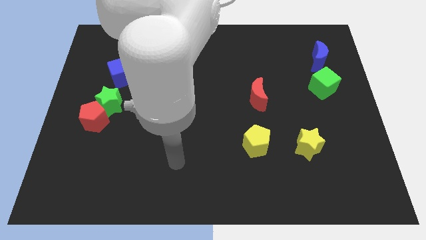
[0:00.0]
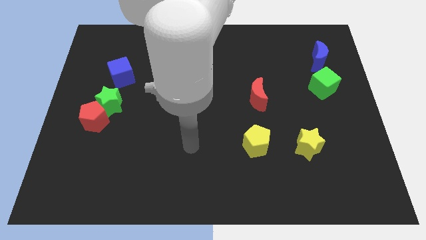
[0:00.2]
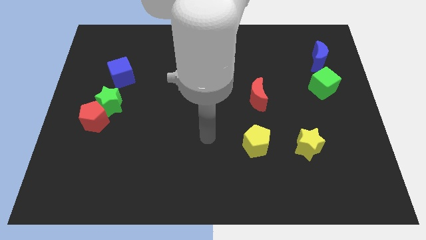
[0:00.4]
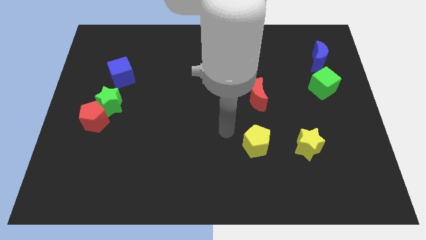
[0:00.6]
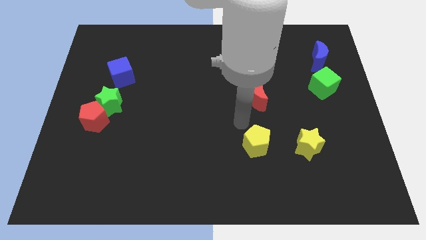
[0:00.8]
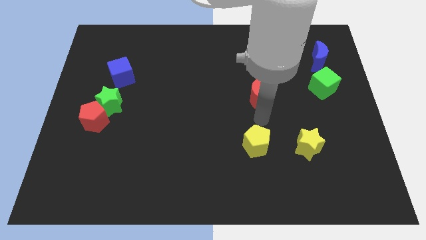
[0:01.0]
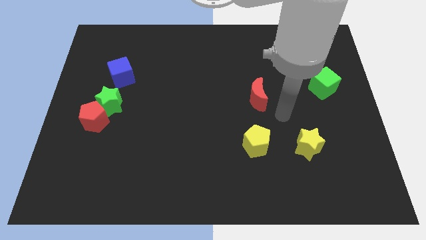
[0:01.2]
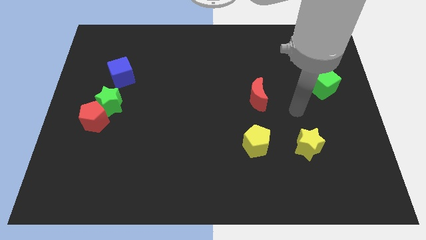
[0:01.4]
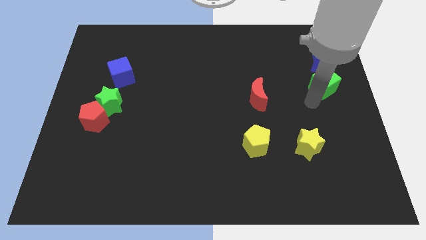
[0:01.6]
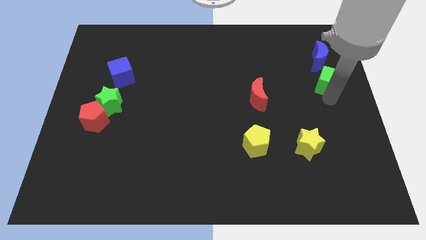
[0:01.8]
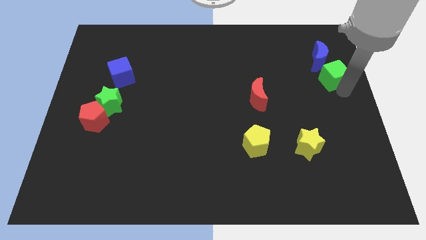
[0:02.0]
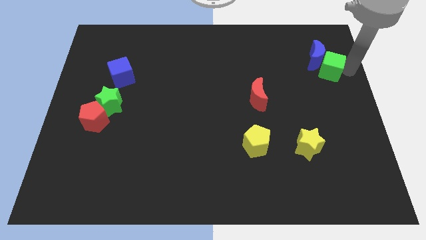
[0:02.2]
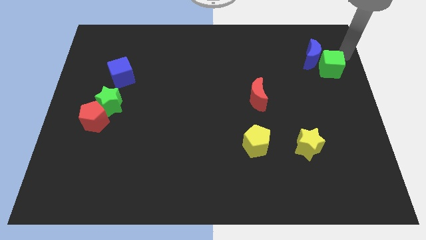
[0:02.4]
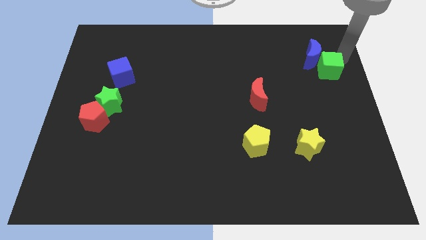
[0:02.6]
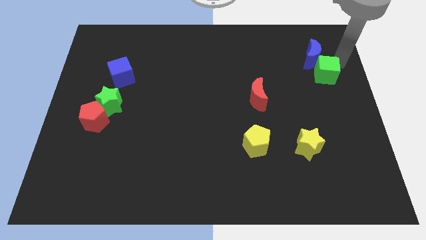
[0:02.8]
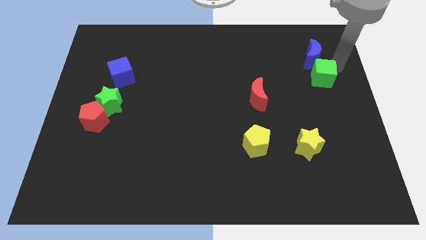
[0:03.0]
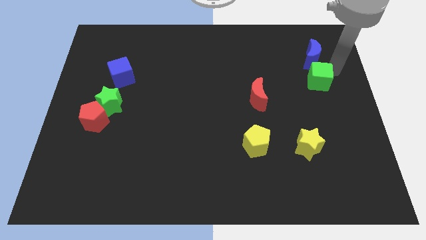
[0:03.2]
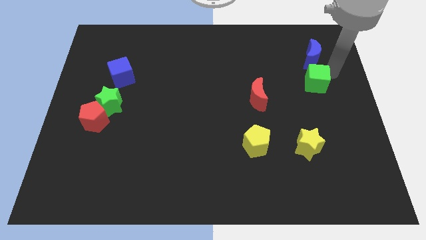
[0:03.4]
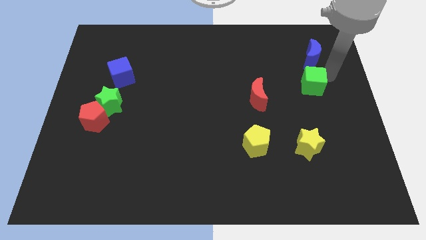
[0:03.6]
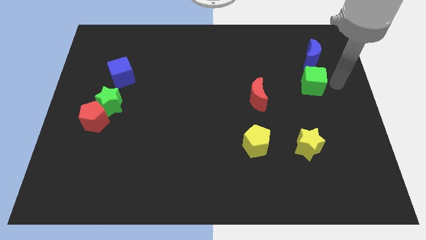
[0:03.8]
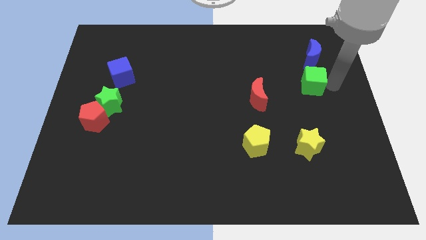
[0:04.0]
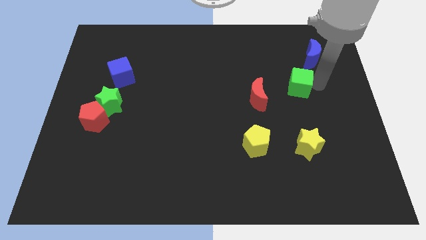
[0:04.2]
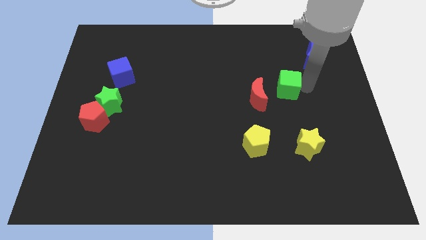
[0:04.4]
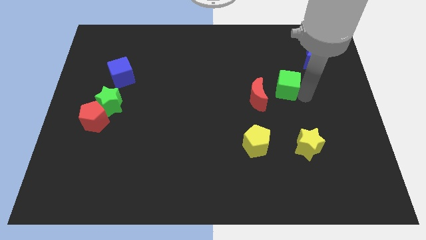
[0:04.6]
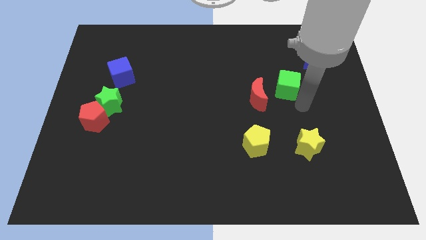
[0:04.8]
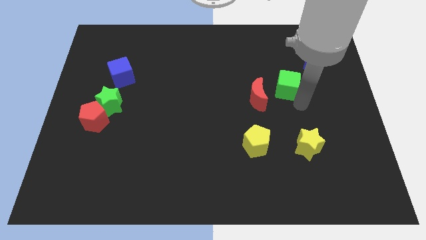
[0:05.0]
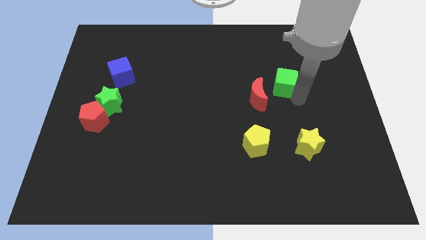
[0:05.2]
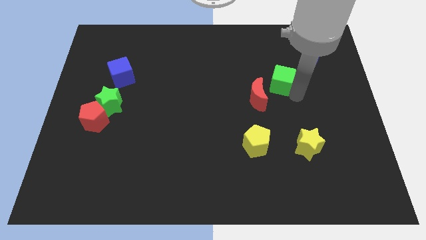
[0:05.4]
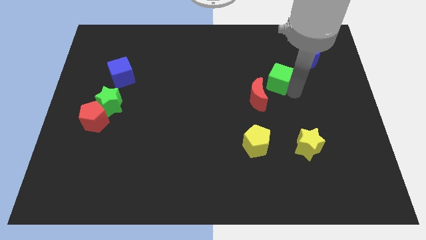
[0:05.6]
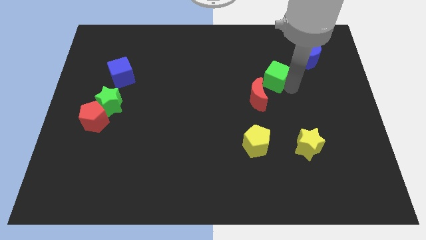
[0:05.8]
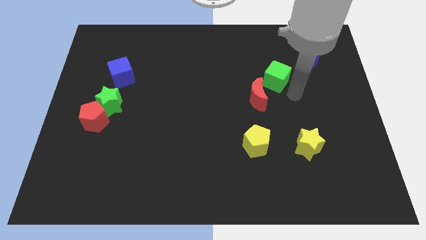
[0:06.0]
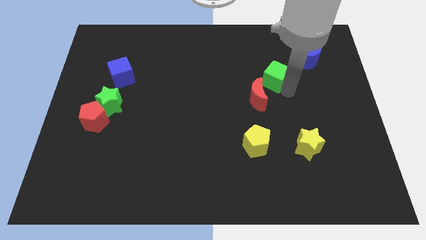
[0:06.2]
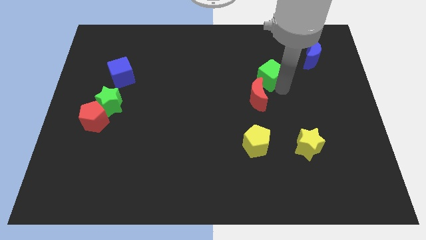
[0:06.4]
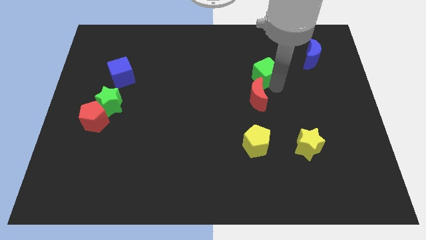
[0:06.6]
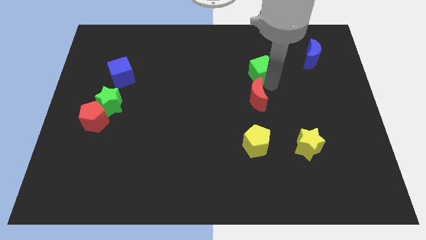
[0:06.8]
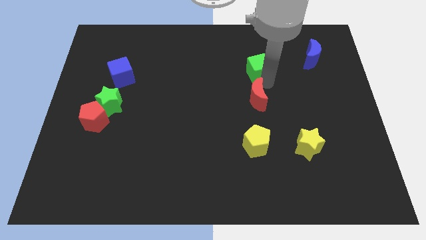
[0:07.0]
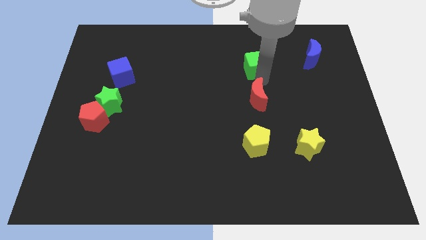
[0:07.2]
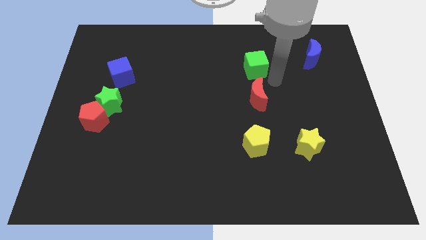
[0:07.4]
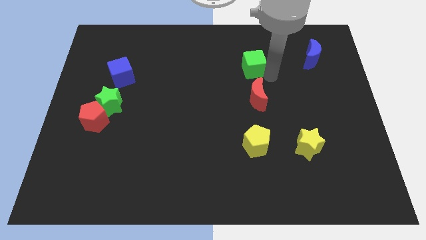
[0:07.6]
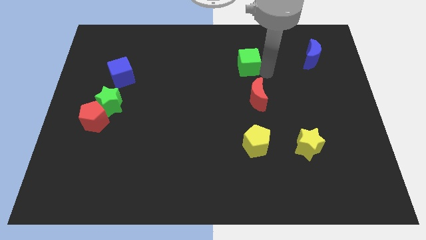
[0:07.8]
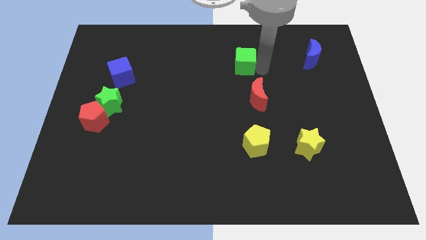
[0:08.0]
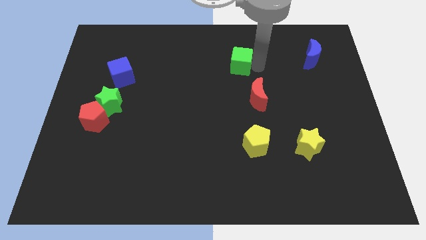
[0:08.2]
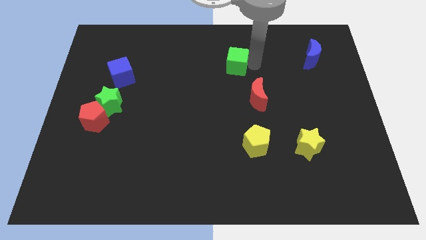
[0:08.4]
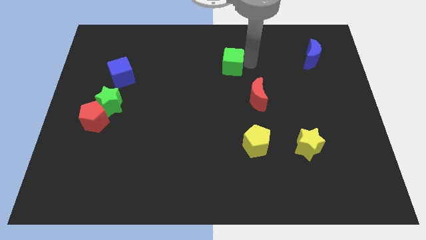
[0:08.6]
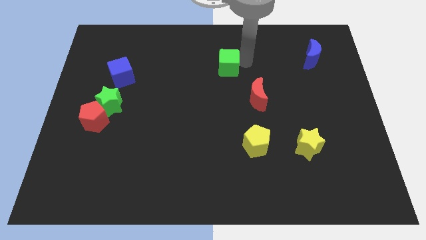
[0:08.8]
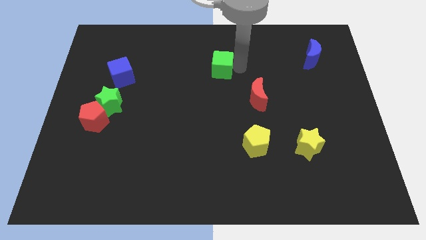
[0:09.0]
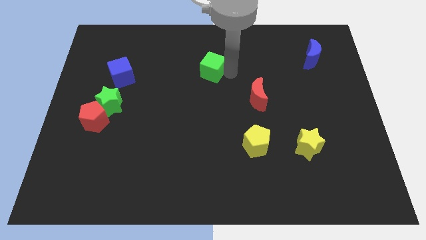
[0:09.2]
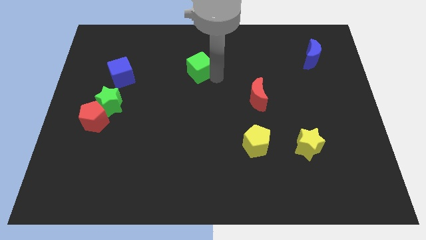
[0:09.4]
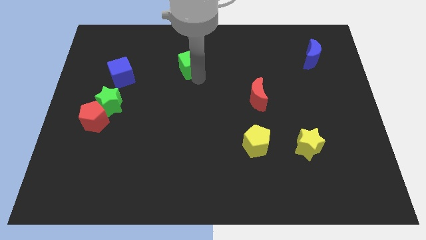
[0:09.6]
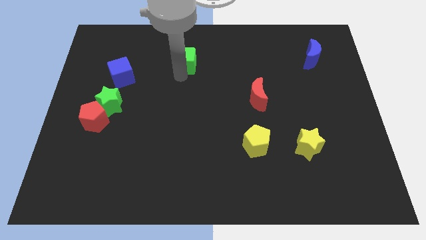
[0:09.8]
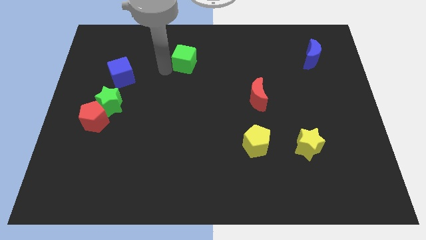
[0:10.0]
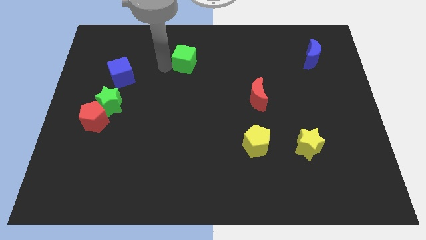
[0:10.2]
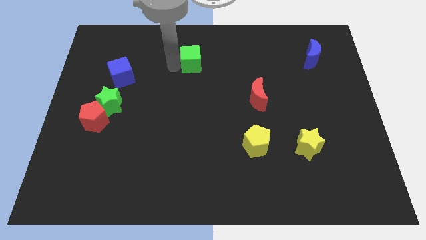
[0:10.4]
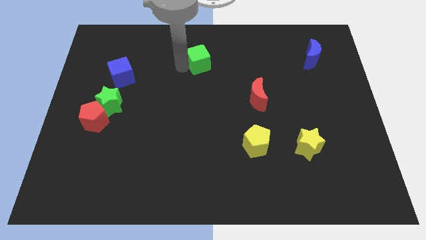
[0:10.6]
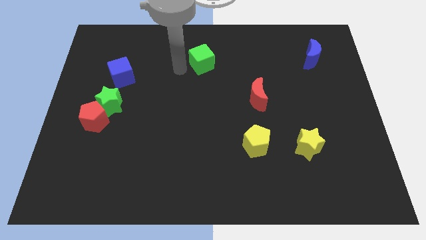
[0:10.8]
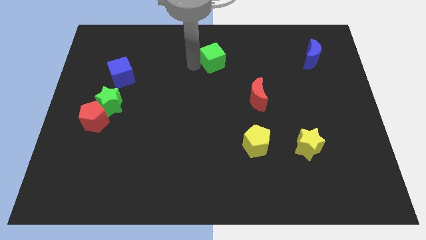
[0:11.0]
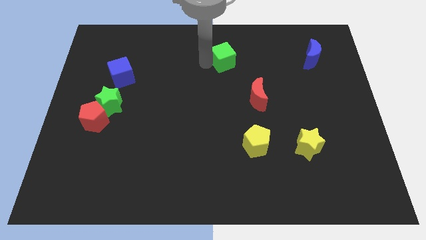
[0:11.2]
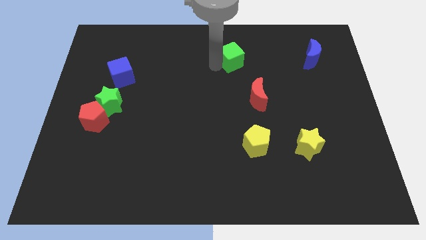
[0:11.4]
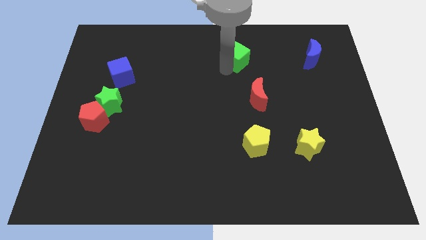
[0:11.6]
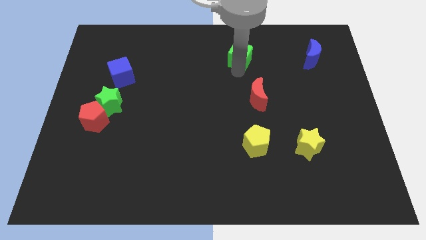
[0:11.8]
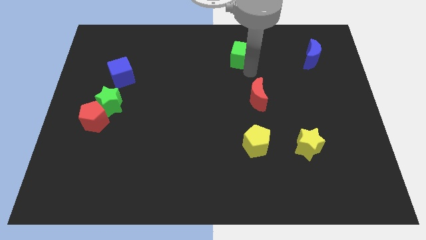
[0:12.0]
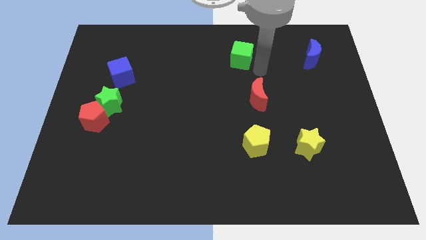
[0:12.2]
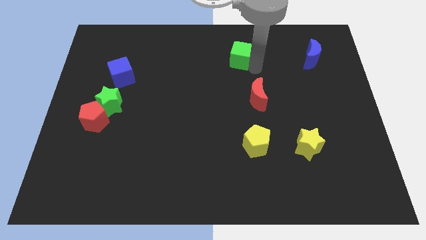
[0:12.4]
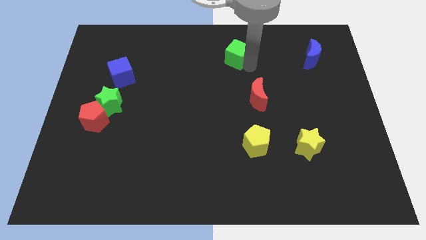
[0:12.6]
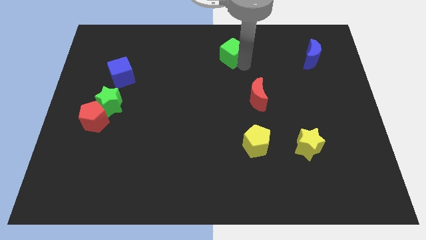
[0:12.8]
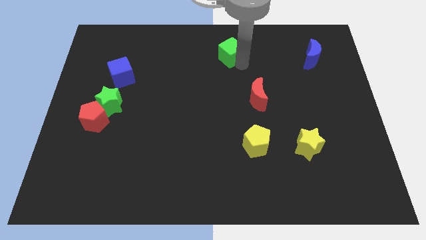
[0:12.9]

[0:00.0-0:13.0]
slide the green cube to the top
